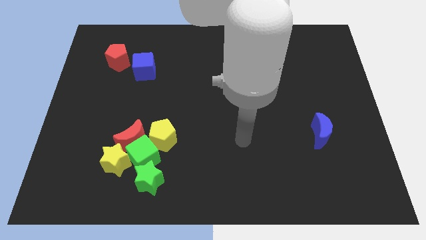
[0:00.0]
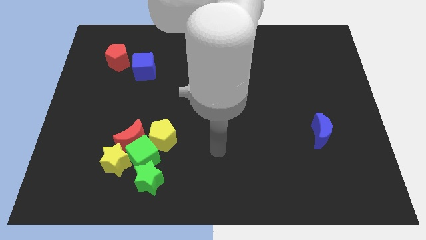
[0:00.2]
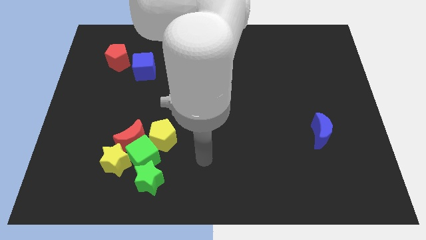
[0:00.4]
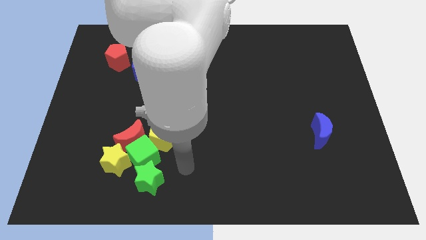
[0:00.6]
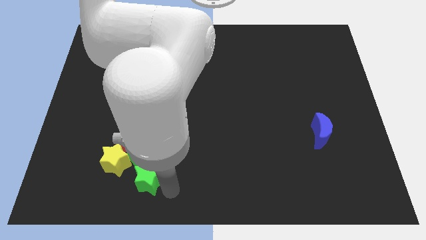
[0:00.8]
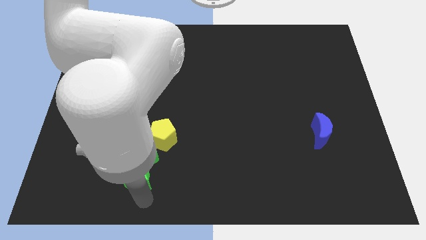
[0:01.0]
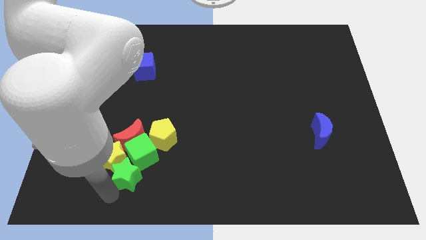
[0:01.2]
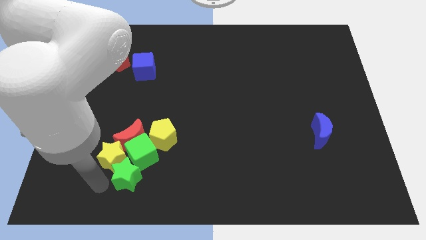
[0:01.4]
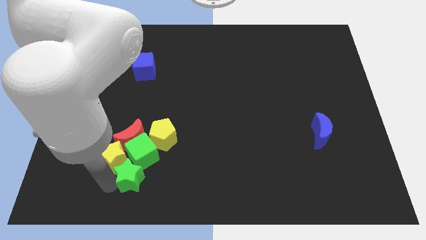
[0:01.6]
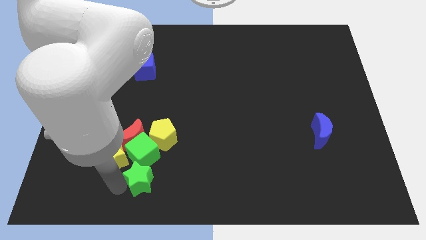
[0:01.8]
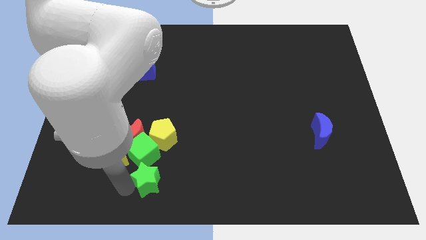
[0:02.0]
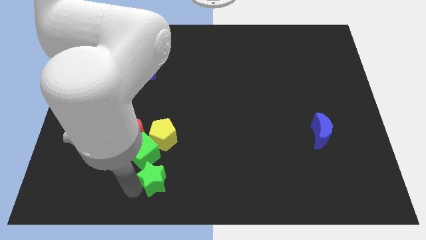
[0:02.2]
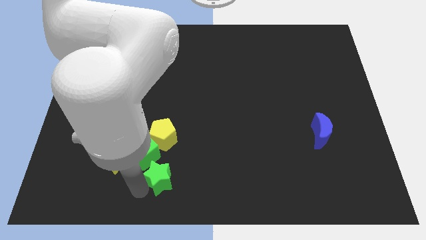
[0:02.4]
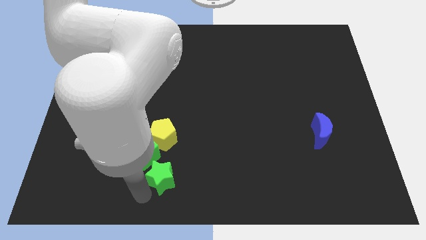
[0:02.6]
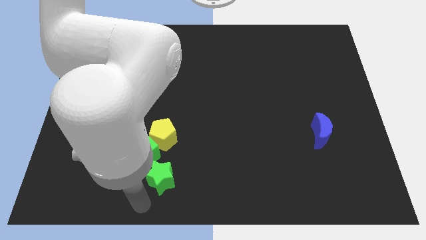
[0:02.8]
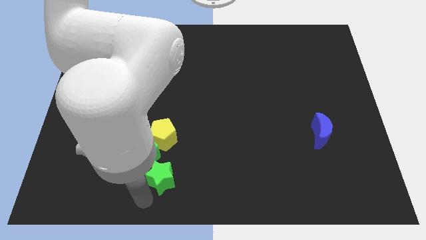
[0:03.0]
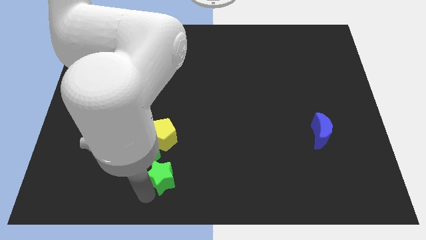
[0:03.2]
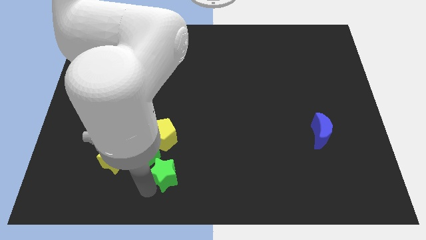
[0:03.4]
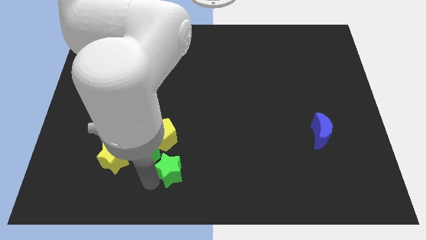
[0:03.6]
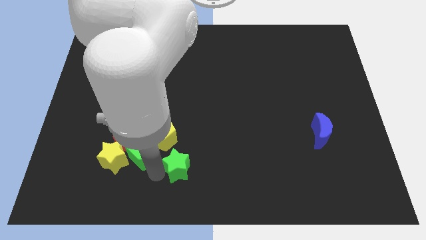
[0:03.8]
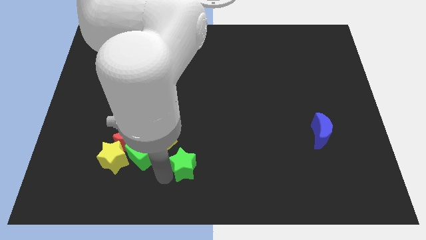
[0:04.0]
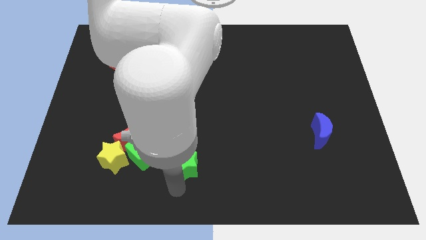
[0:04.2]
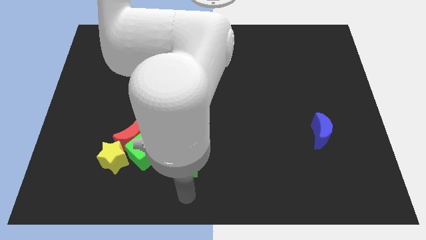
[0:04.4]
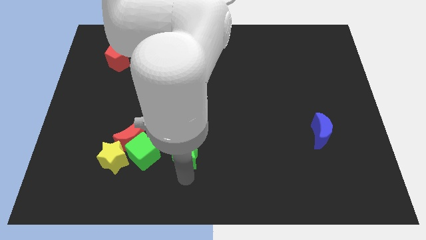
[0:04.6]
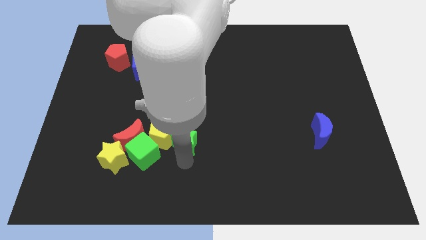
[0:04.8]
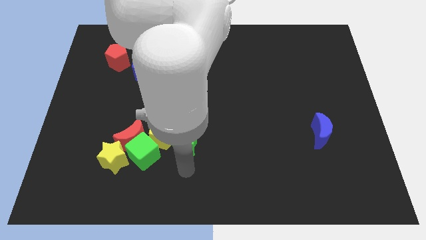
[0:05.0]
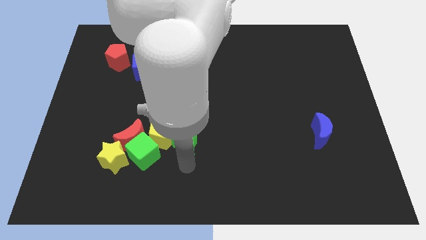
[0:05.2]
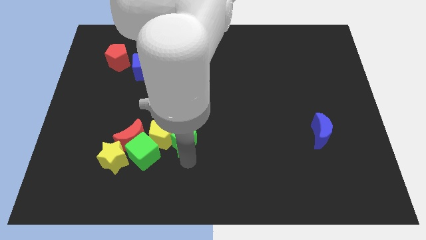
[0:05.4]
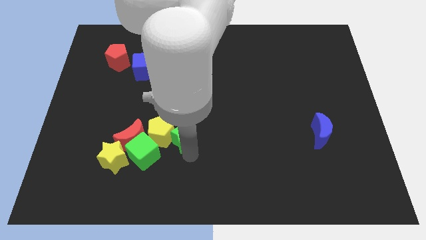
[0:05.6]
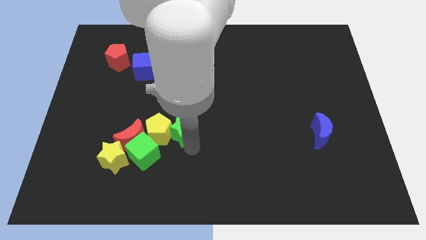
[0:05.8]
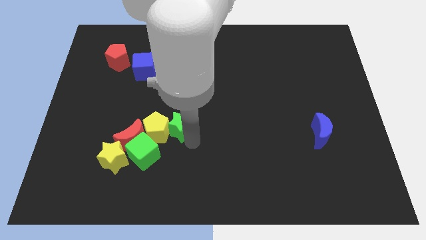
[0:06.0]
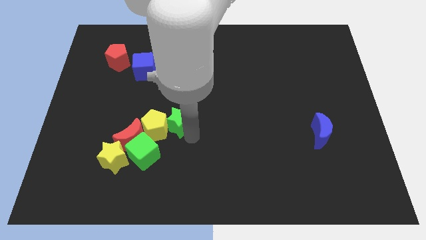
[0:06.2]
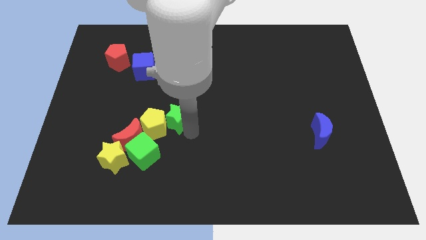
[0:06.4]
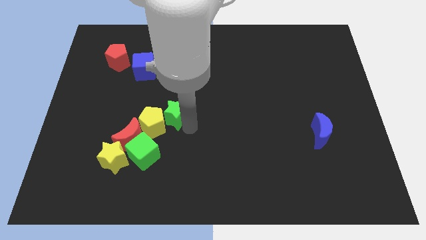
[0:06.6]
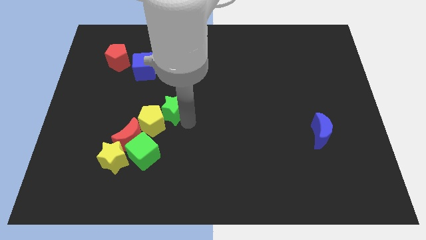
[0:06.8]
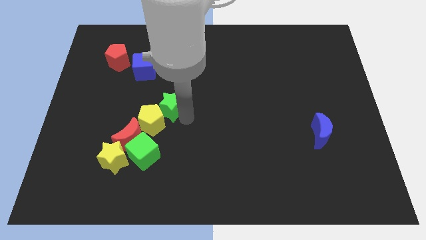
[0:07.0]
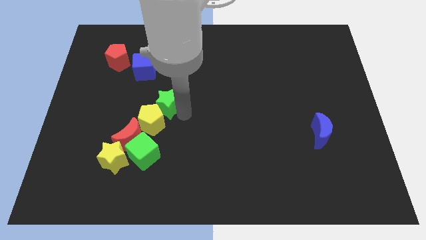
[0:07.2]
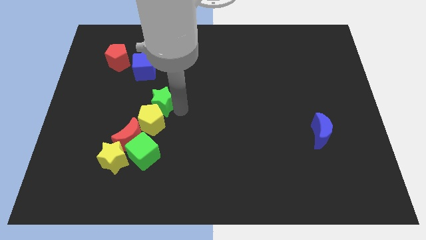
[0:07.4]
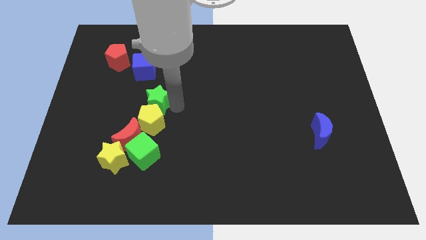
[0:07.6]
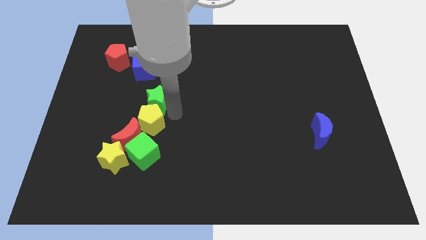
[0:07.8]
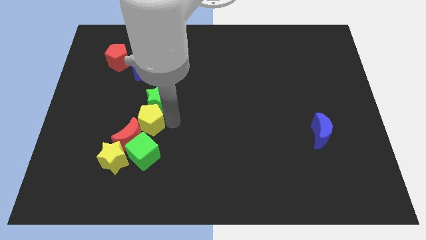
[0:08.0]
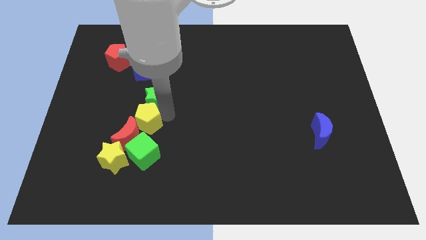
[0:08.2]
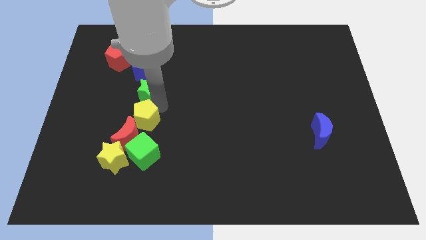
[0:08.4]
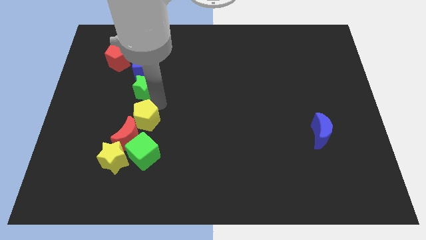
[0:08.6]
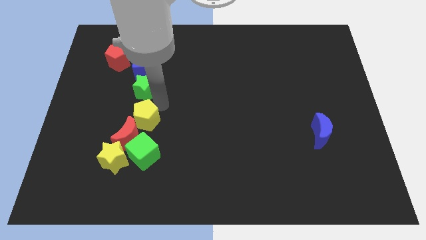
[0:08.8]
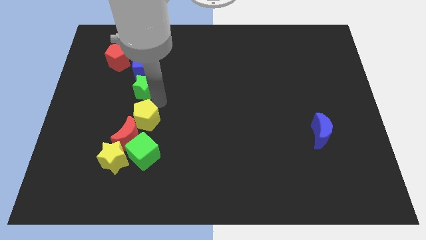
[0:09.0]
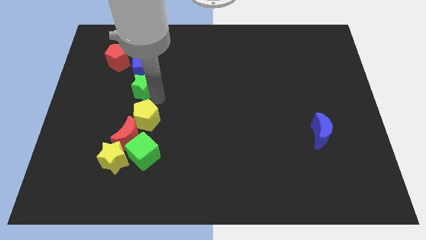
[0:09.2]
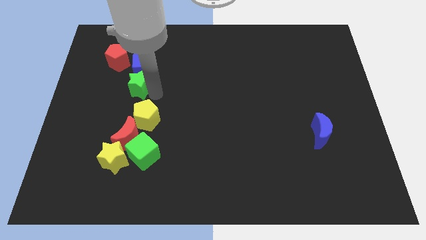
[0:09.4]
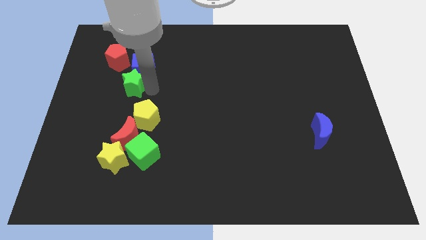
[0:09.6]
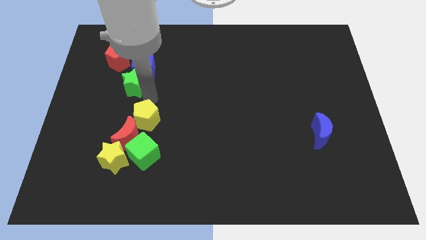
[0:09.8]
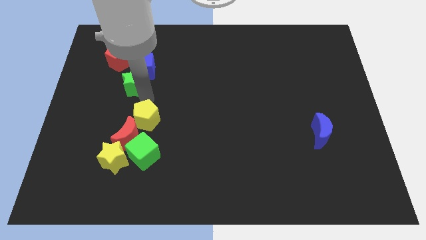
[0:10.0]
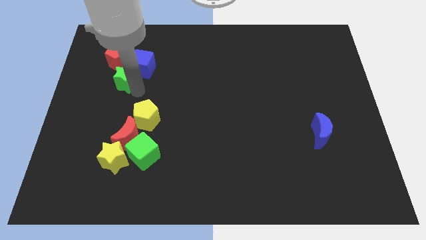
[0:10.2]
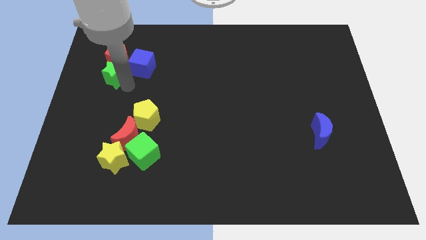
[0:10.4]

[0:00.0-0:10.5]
push the green star towards the red pentagon

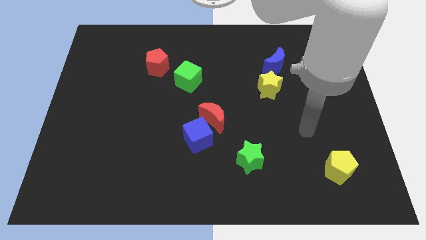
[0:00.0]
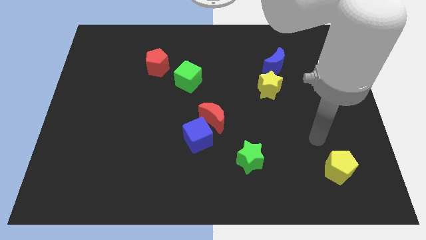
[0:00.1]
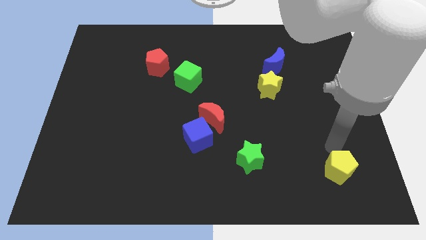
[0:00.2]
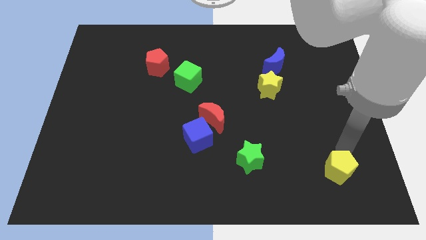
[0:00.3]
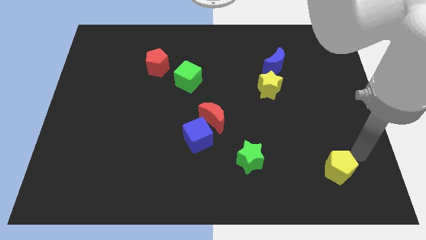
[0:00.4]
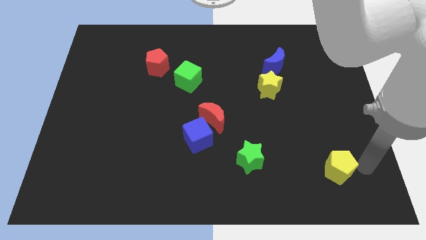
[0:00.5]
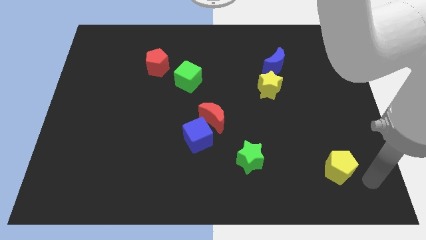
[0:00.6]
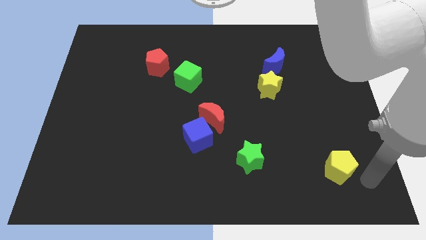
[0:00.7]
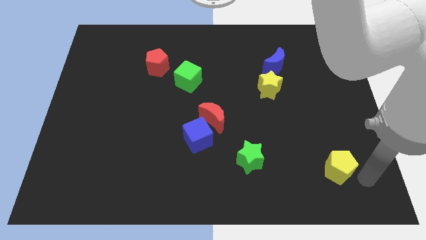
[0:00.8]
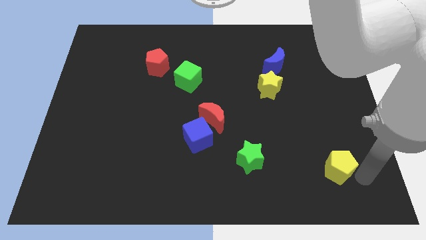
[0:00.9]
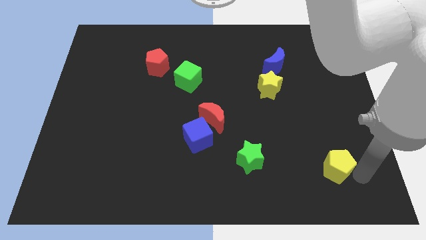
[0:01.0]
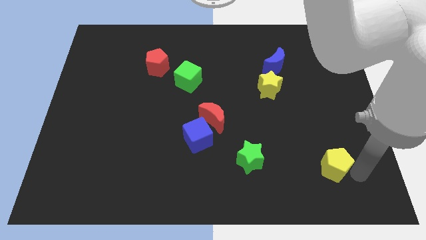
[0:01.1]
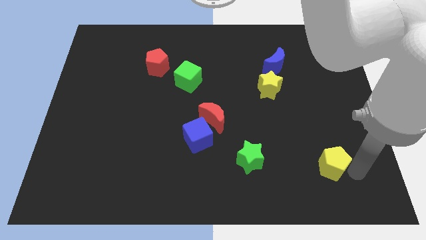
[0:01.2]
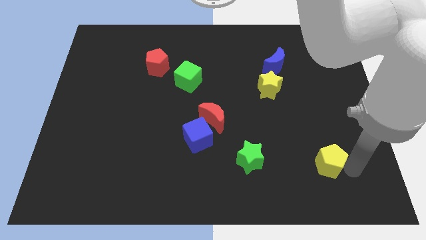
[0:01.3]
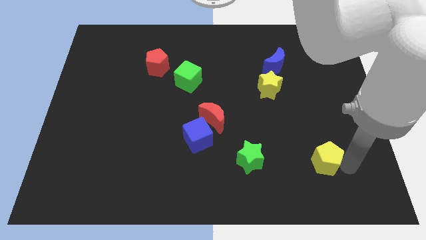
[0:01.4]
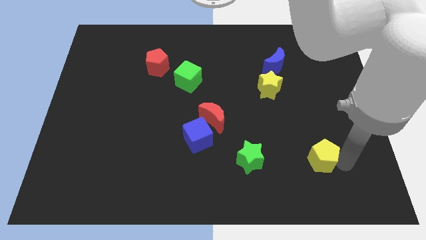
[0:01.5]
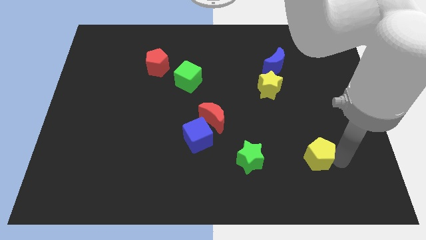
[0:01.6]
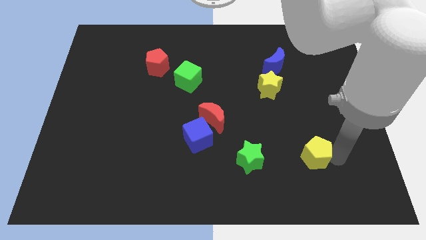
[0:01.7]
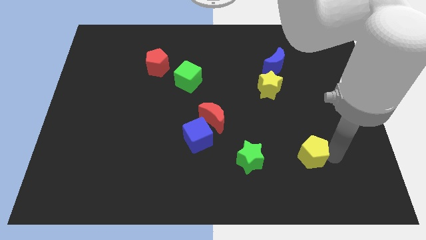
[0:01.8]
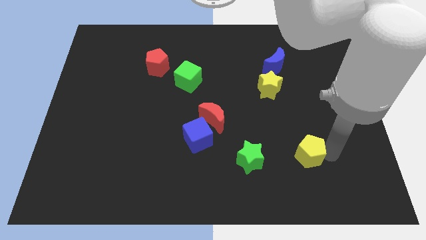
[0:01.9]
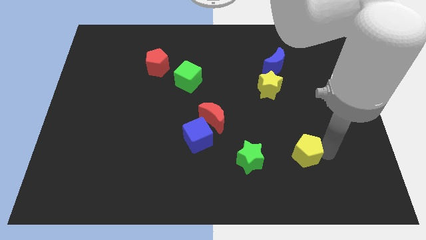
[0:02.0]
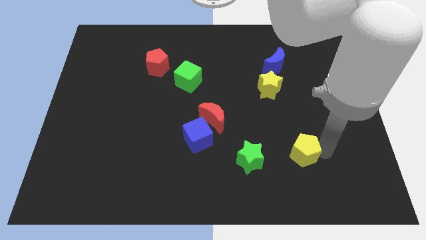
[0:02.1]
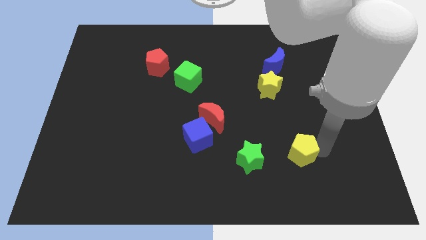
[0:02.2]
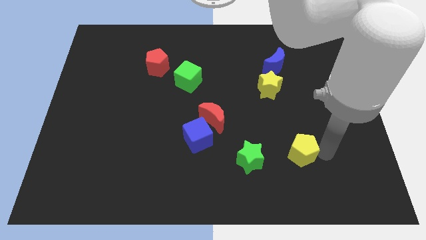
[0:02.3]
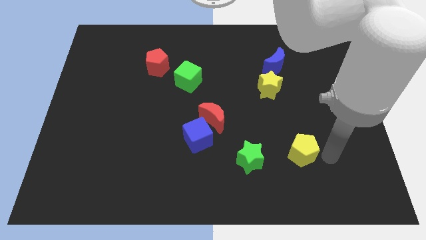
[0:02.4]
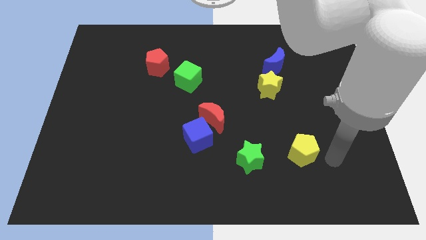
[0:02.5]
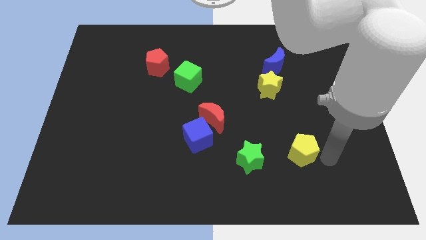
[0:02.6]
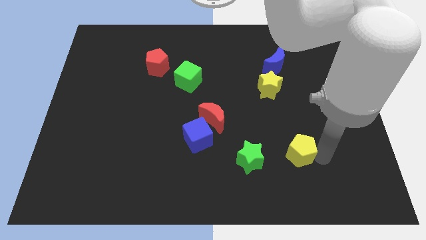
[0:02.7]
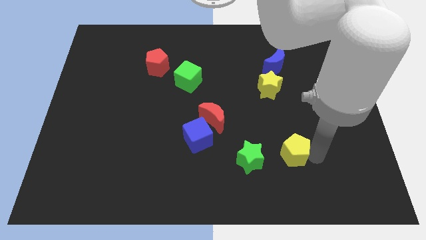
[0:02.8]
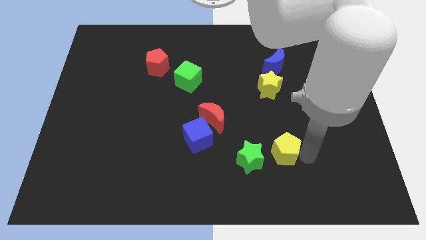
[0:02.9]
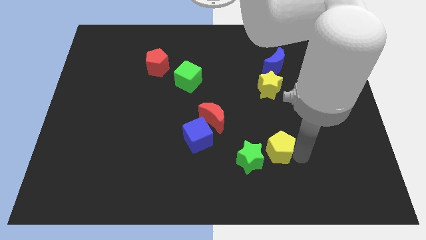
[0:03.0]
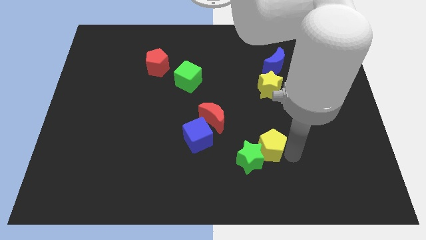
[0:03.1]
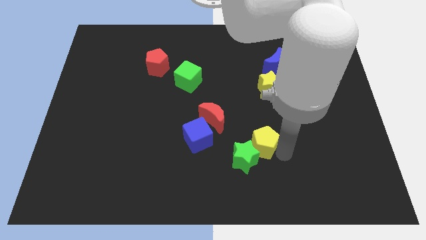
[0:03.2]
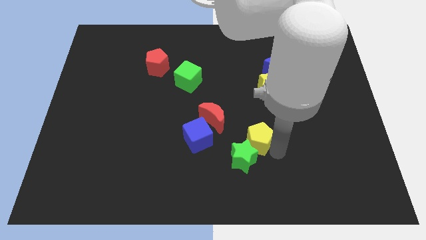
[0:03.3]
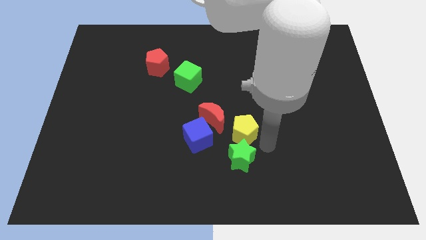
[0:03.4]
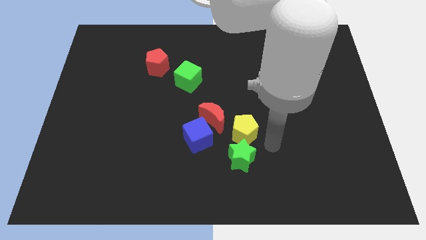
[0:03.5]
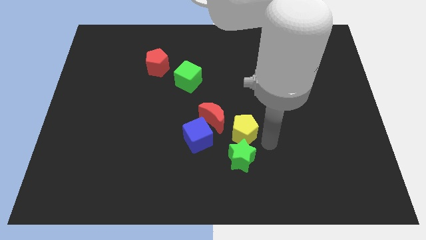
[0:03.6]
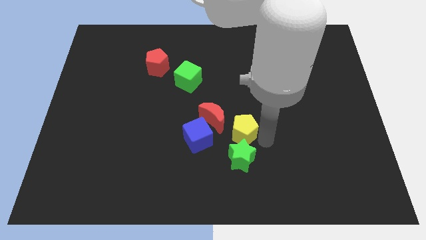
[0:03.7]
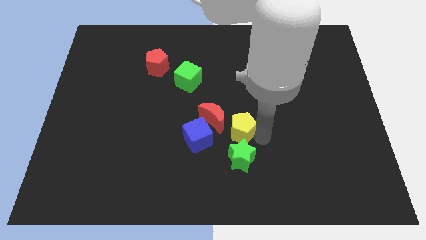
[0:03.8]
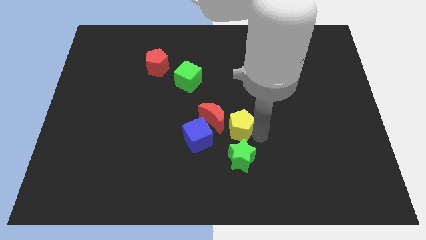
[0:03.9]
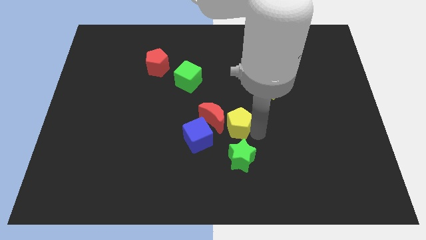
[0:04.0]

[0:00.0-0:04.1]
put the yellow pentagon close to the red moon
